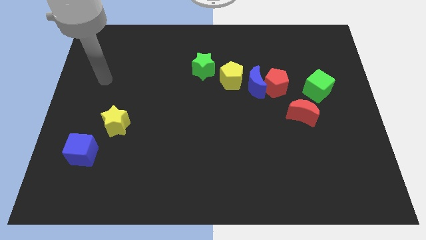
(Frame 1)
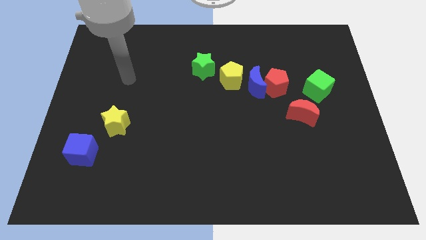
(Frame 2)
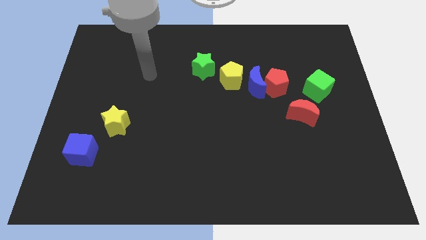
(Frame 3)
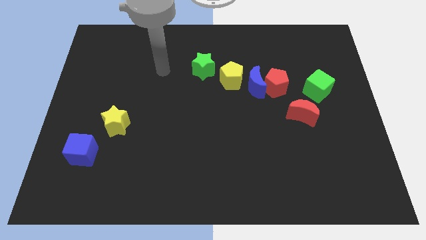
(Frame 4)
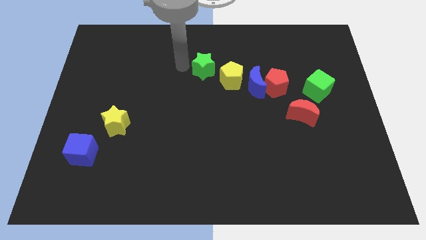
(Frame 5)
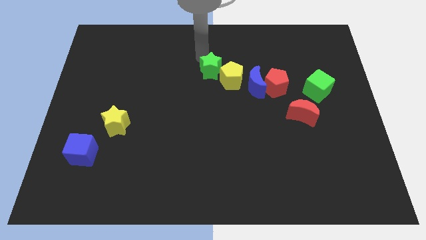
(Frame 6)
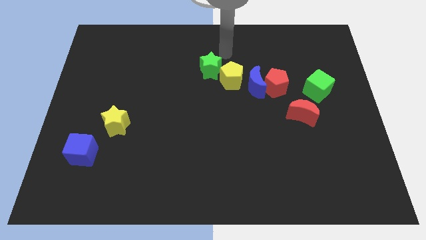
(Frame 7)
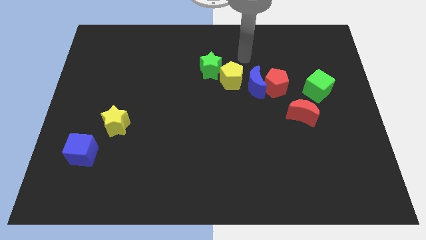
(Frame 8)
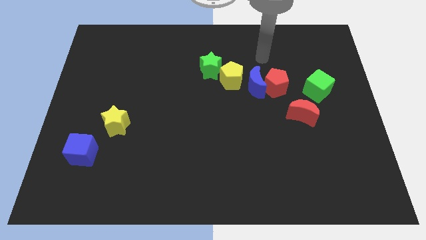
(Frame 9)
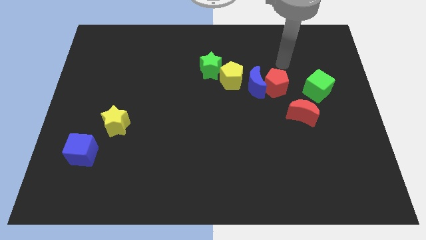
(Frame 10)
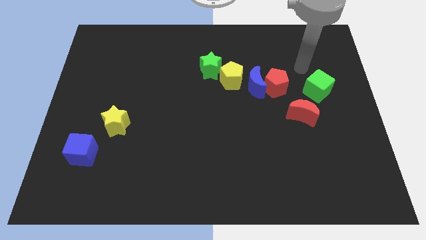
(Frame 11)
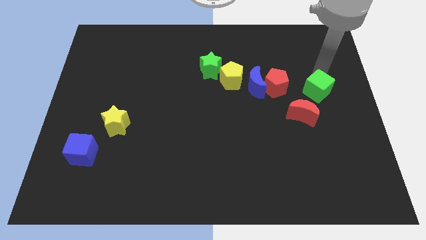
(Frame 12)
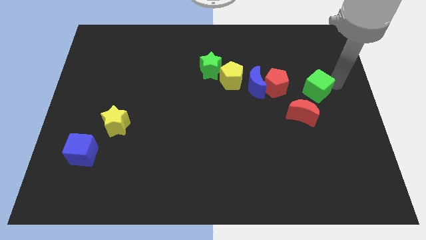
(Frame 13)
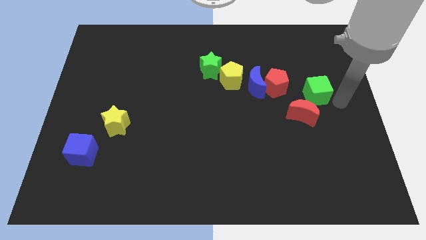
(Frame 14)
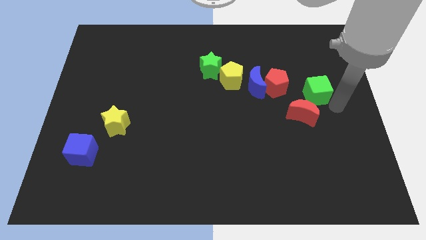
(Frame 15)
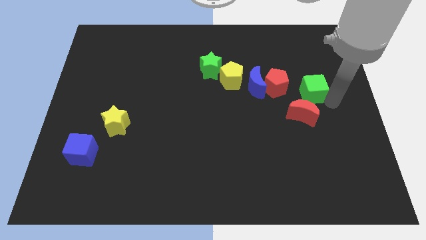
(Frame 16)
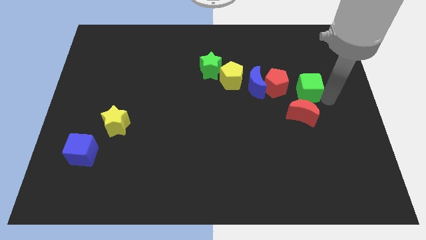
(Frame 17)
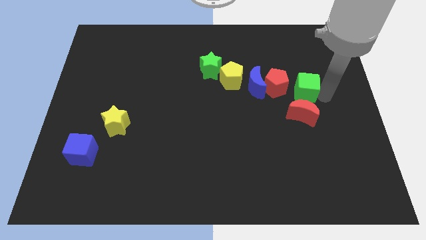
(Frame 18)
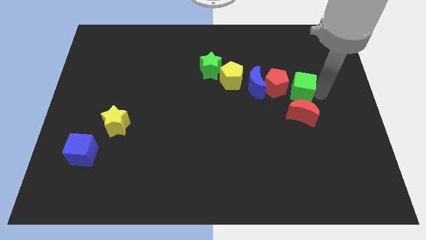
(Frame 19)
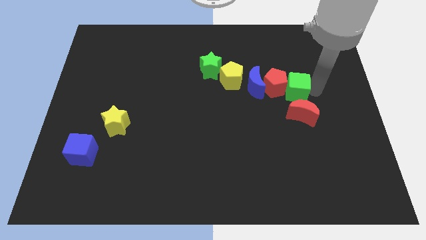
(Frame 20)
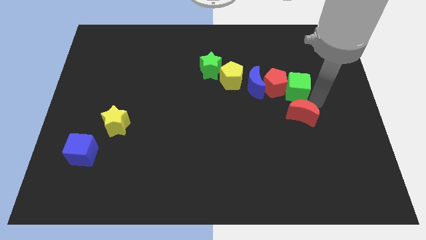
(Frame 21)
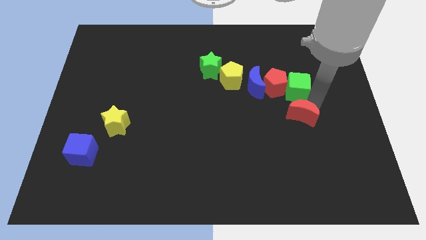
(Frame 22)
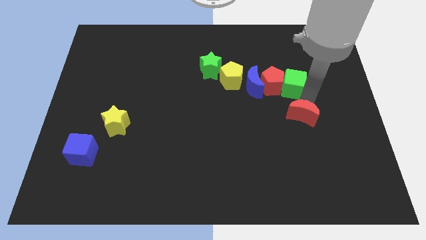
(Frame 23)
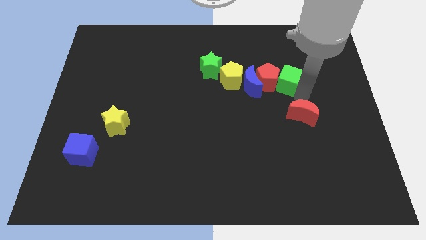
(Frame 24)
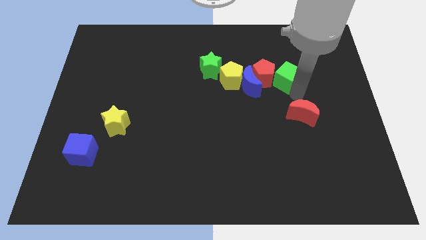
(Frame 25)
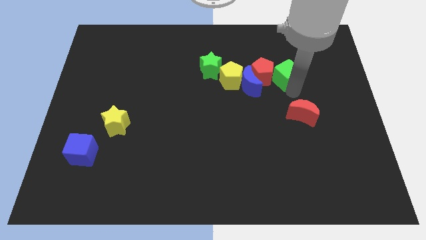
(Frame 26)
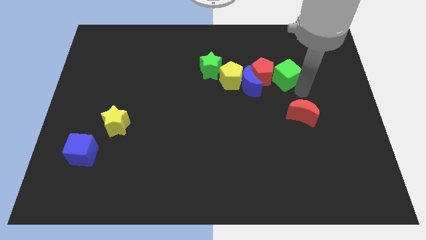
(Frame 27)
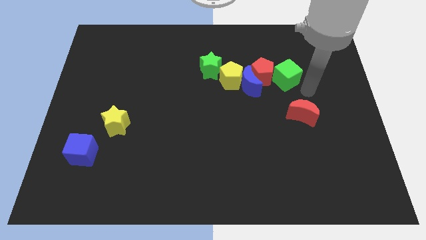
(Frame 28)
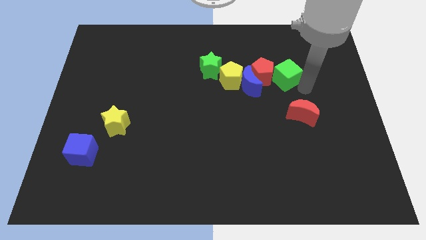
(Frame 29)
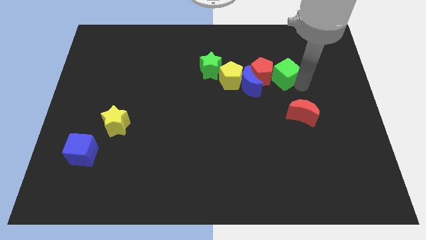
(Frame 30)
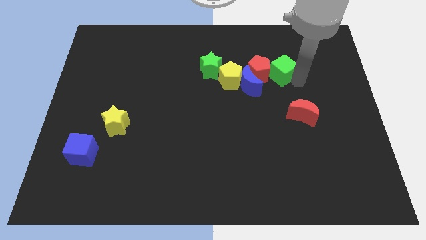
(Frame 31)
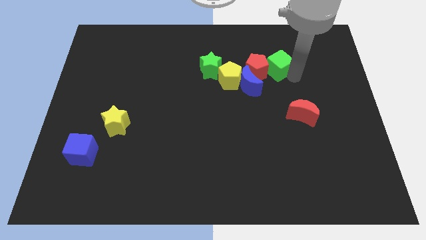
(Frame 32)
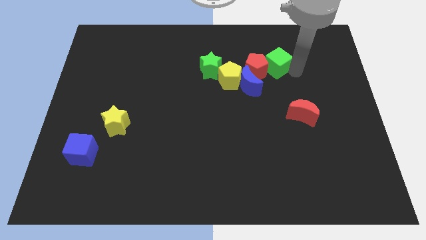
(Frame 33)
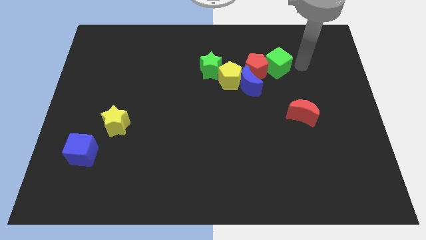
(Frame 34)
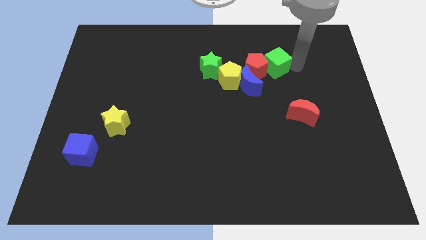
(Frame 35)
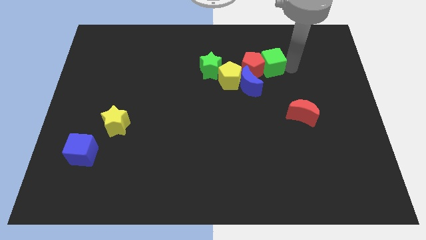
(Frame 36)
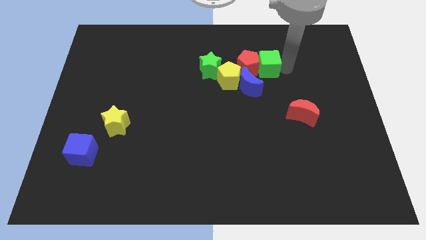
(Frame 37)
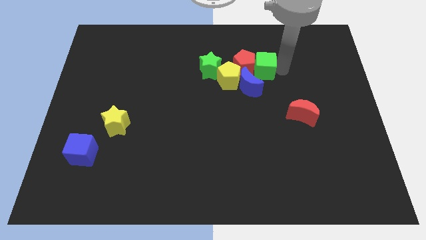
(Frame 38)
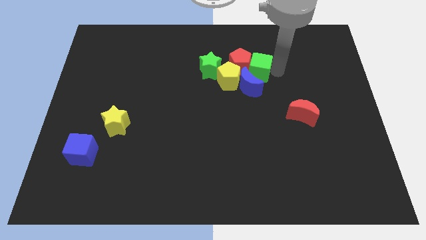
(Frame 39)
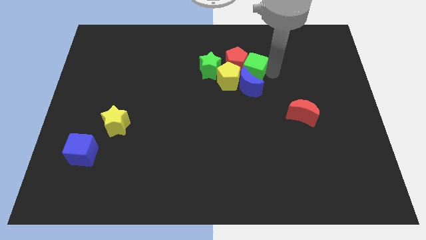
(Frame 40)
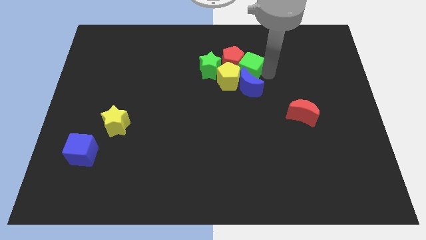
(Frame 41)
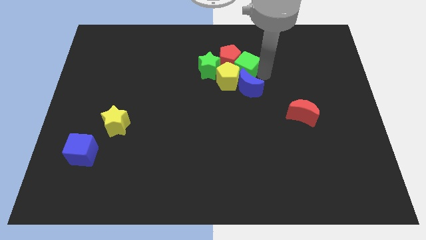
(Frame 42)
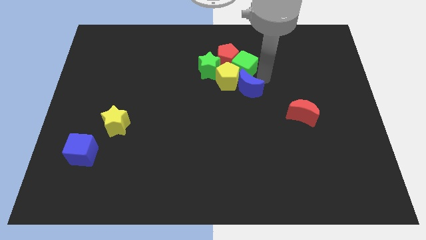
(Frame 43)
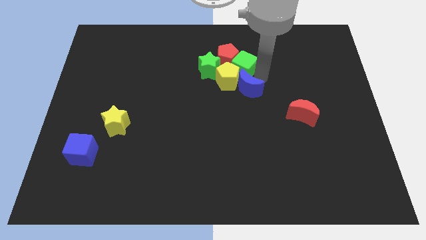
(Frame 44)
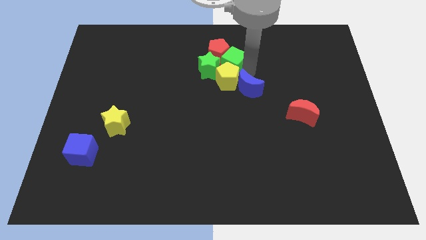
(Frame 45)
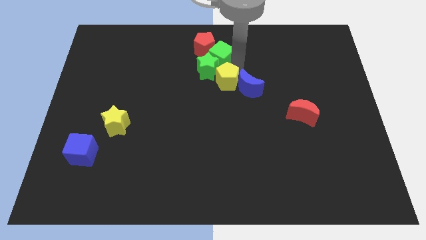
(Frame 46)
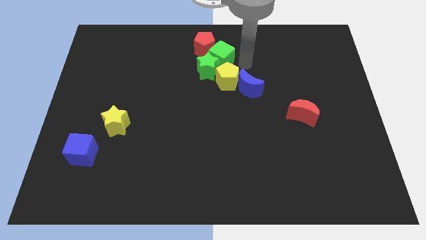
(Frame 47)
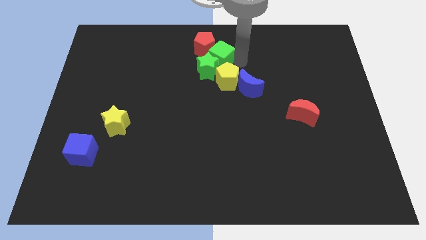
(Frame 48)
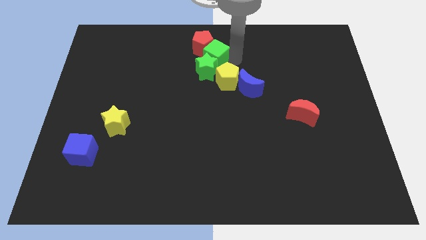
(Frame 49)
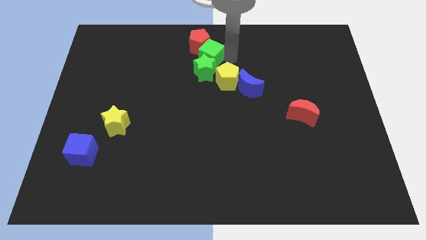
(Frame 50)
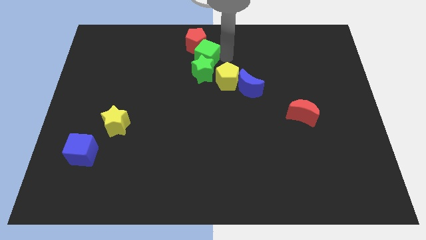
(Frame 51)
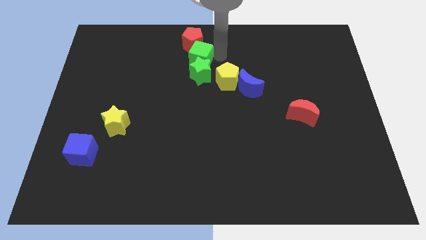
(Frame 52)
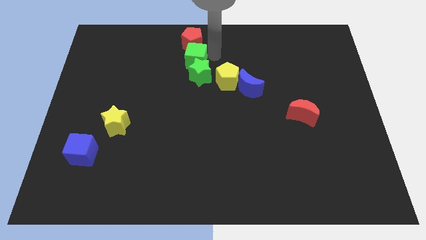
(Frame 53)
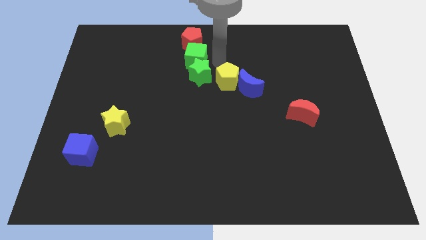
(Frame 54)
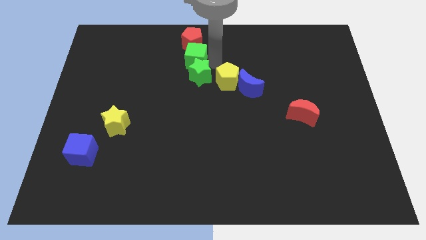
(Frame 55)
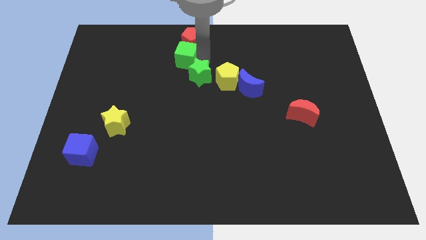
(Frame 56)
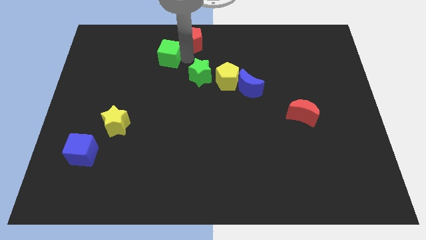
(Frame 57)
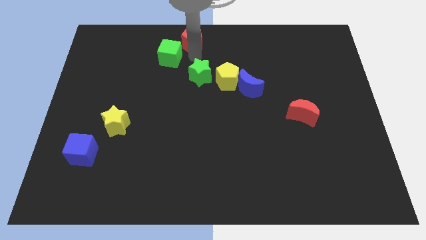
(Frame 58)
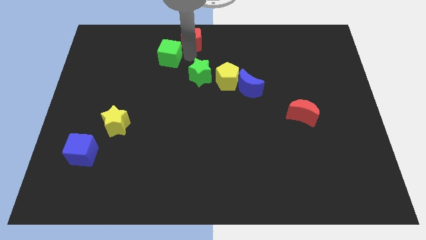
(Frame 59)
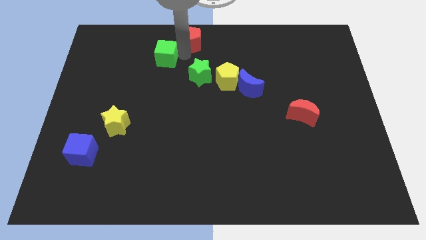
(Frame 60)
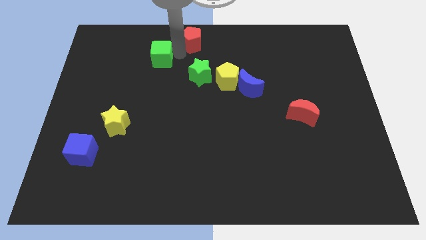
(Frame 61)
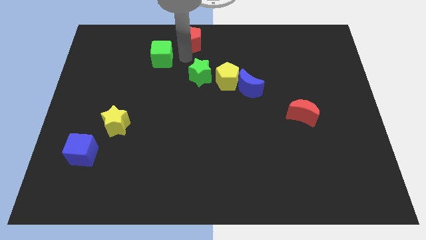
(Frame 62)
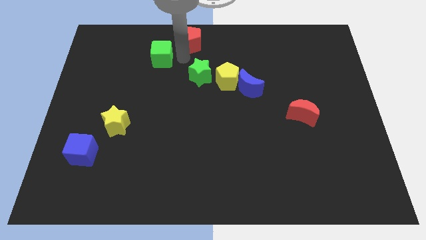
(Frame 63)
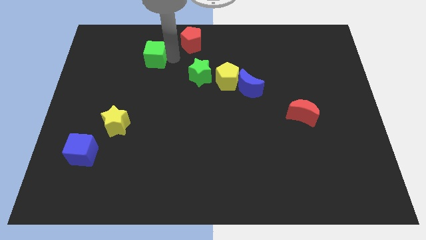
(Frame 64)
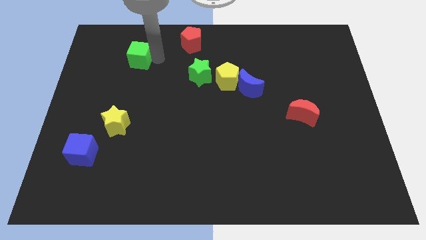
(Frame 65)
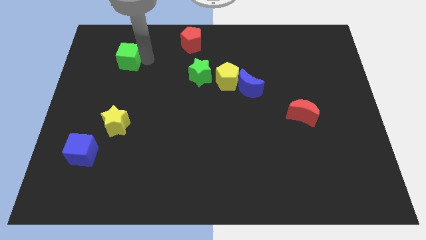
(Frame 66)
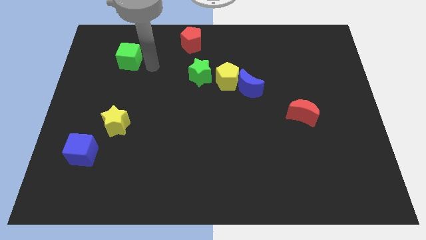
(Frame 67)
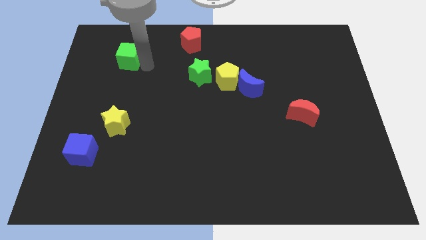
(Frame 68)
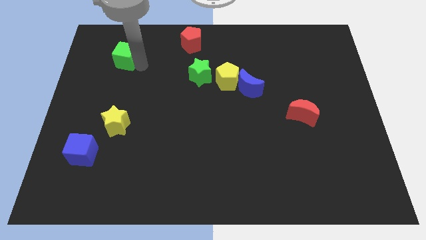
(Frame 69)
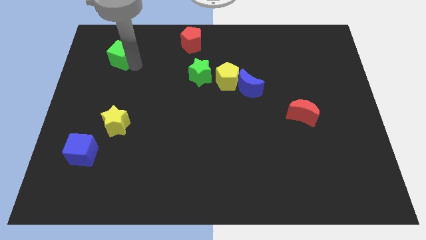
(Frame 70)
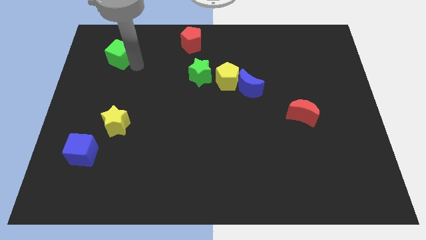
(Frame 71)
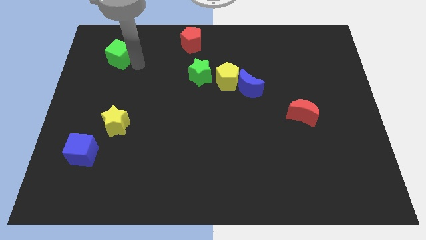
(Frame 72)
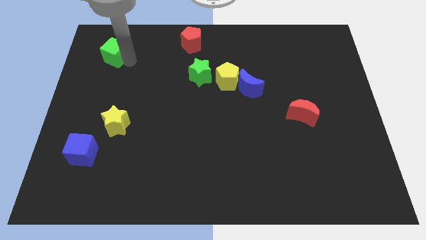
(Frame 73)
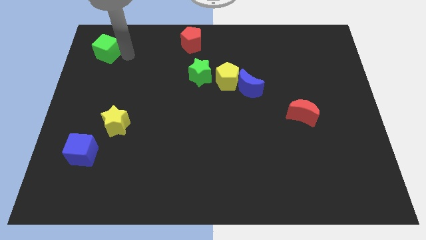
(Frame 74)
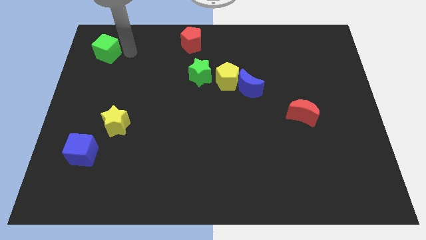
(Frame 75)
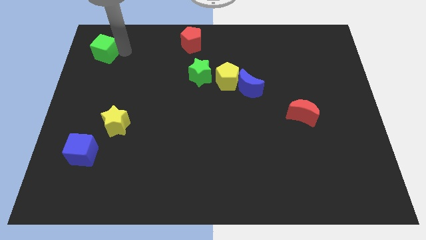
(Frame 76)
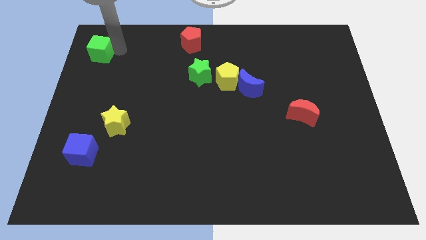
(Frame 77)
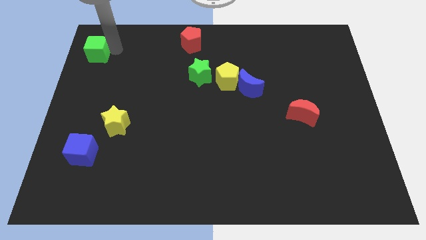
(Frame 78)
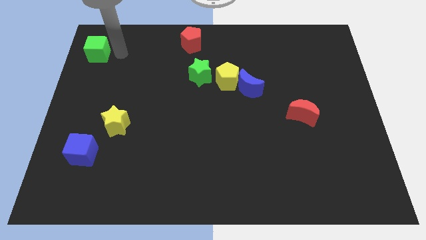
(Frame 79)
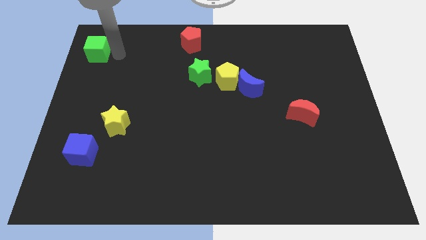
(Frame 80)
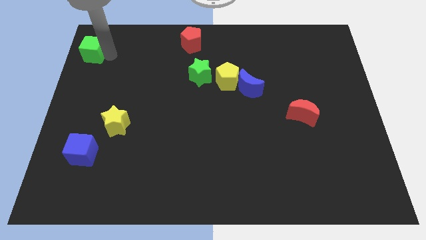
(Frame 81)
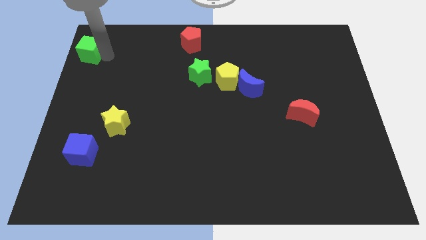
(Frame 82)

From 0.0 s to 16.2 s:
move the green cube to the top left corner
